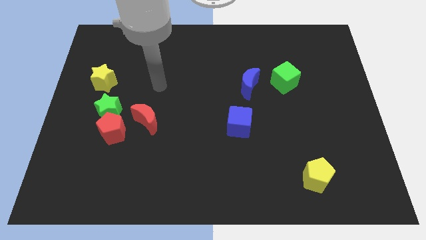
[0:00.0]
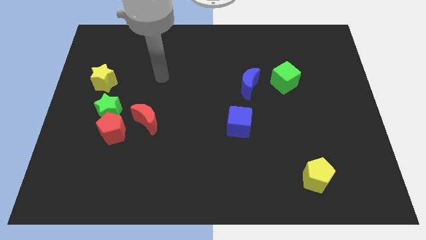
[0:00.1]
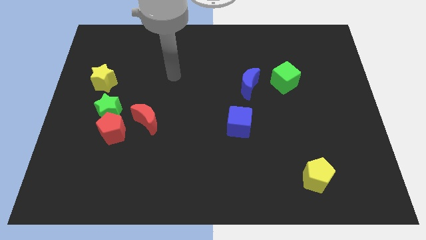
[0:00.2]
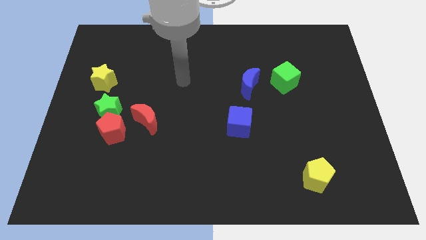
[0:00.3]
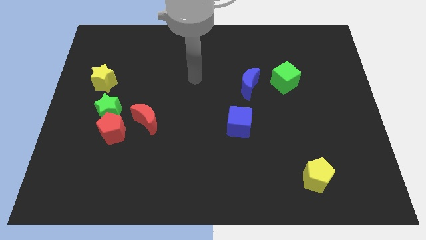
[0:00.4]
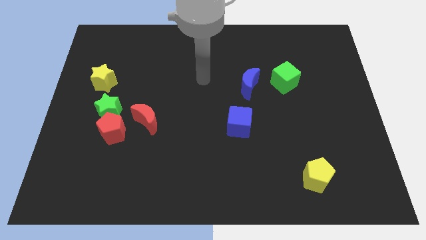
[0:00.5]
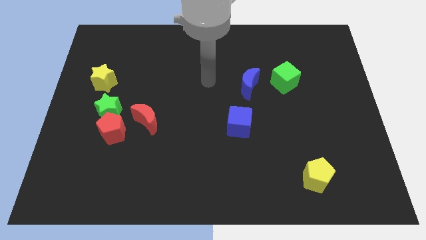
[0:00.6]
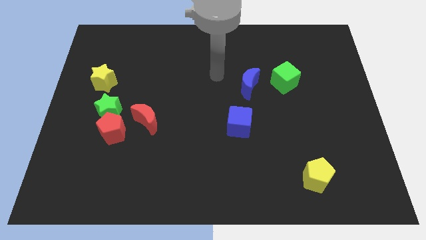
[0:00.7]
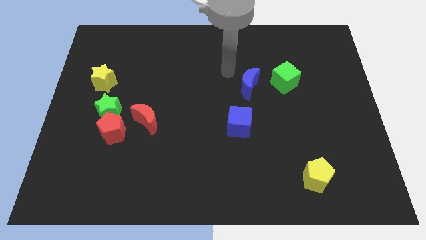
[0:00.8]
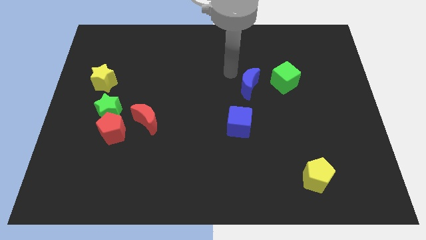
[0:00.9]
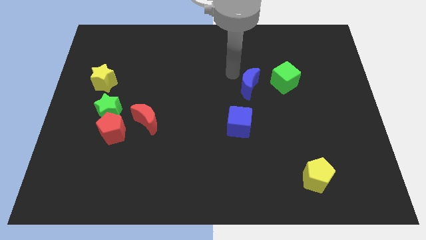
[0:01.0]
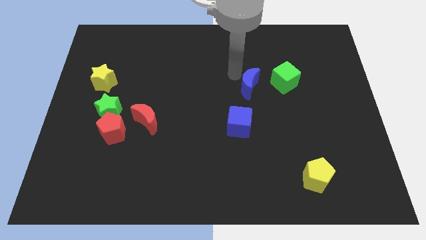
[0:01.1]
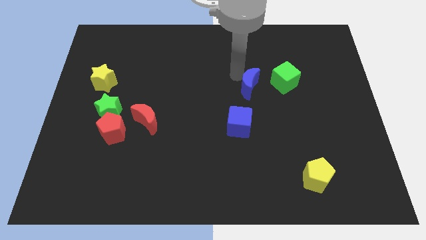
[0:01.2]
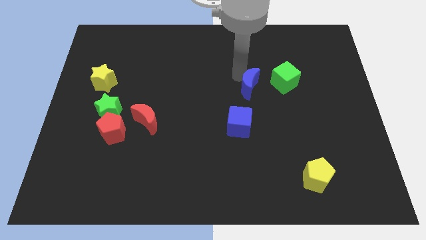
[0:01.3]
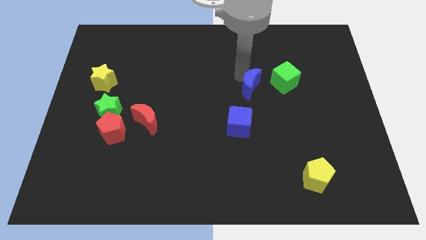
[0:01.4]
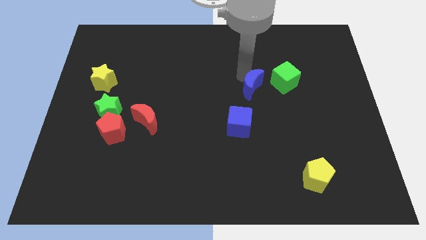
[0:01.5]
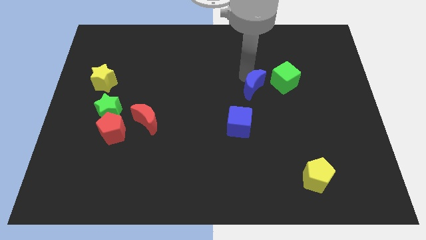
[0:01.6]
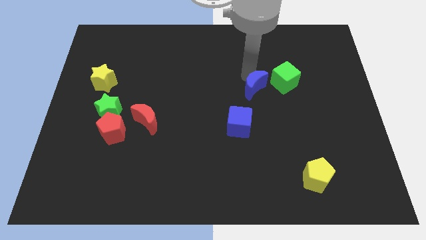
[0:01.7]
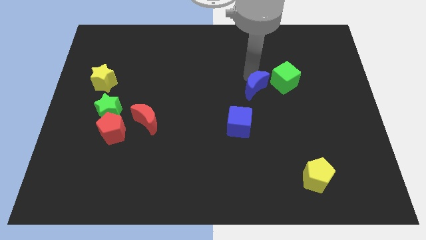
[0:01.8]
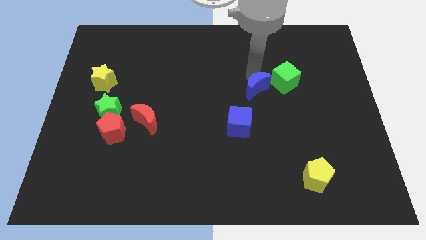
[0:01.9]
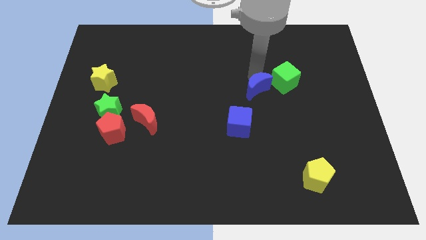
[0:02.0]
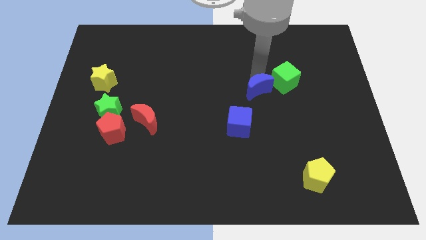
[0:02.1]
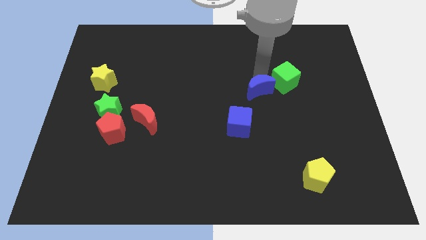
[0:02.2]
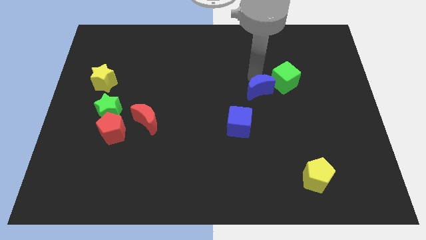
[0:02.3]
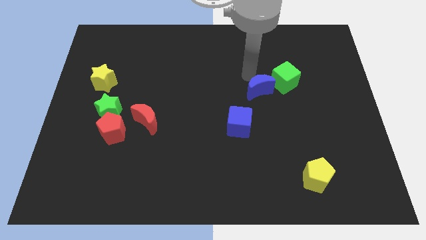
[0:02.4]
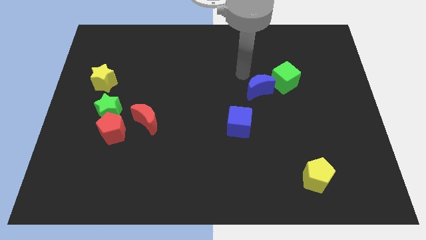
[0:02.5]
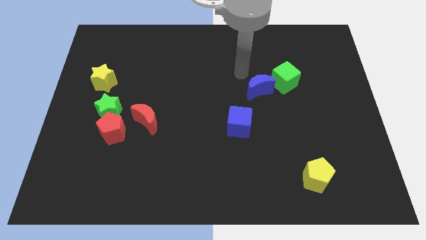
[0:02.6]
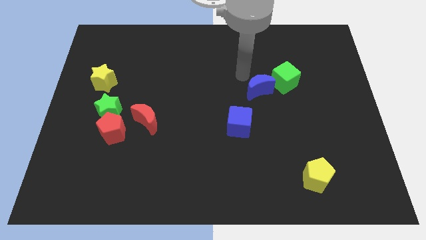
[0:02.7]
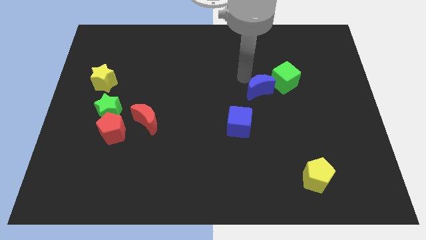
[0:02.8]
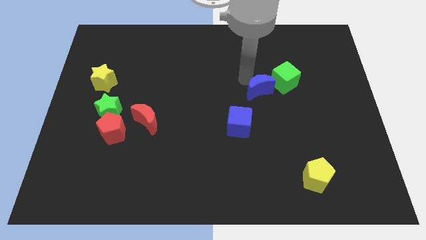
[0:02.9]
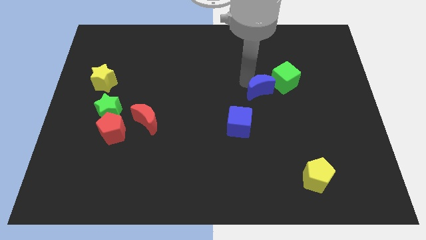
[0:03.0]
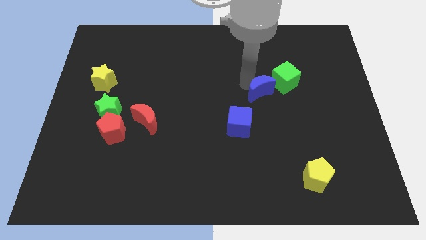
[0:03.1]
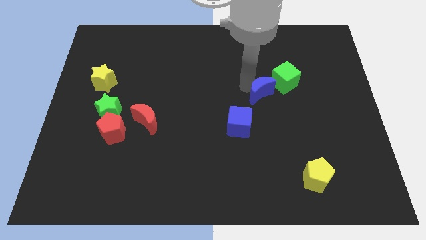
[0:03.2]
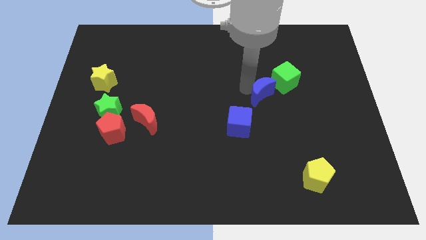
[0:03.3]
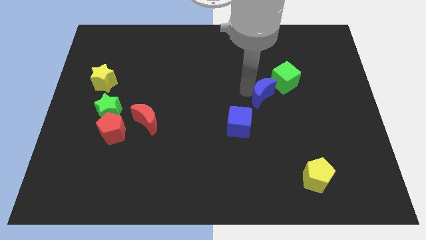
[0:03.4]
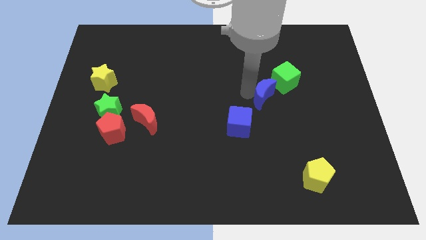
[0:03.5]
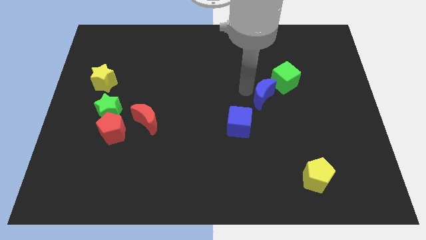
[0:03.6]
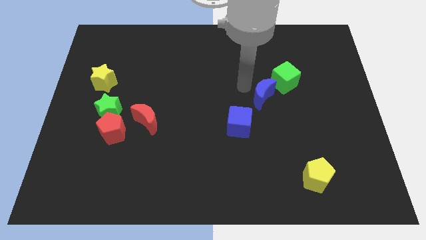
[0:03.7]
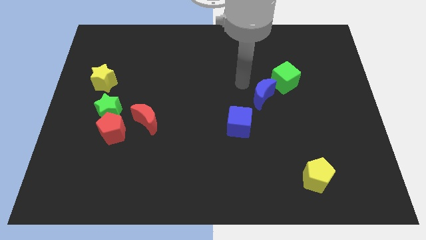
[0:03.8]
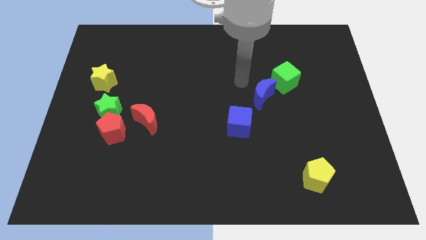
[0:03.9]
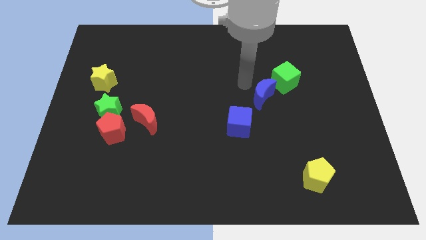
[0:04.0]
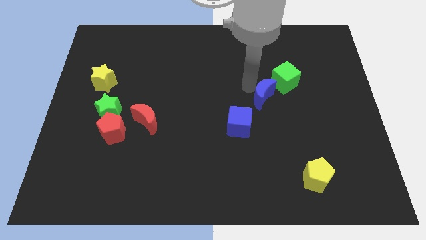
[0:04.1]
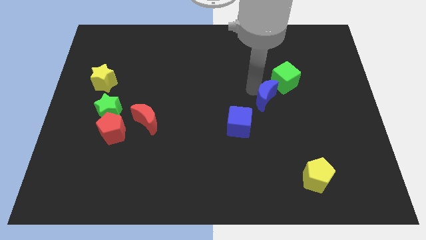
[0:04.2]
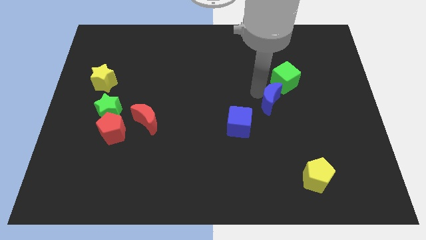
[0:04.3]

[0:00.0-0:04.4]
slightly move the blue moon diagonally downwards and to the right

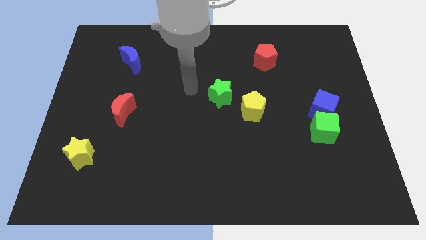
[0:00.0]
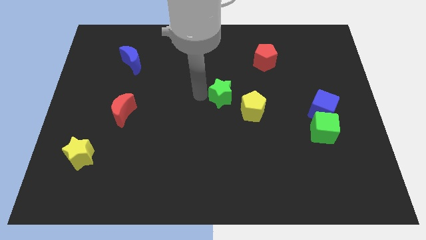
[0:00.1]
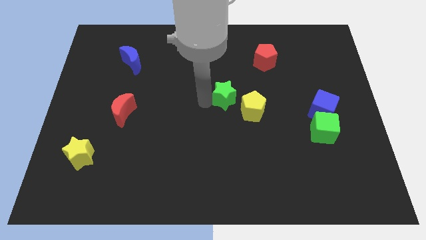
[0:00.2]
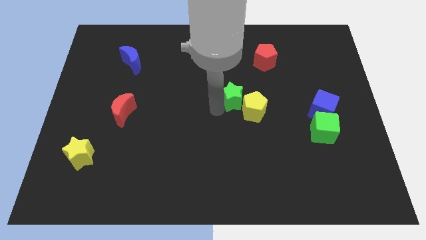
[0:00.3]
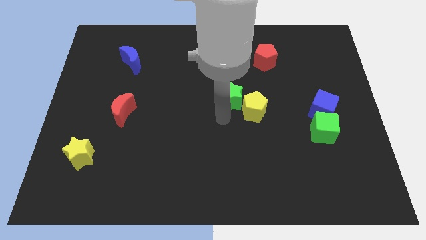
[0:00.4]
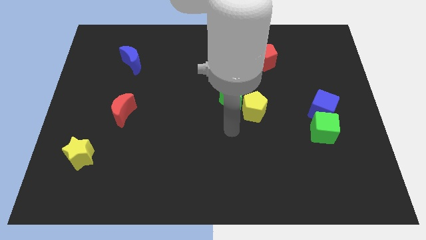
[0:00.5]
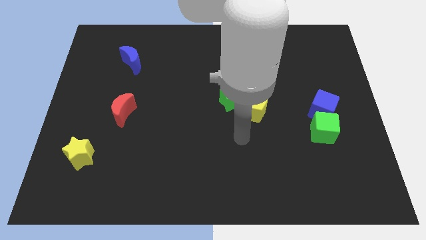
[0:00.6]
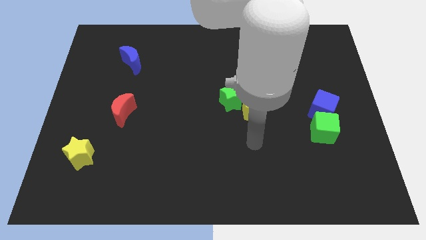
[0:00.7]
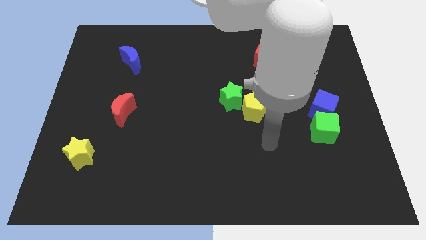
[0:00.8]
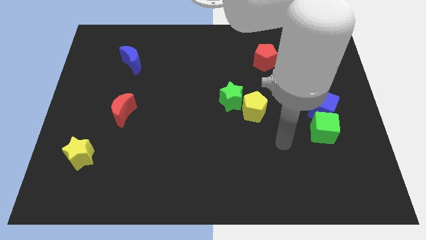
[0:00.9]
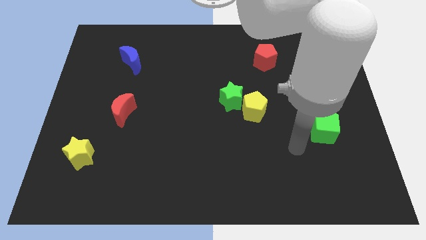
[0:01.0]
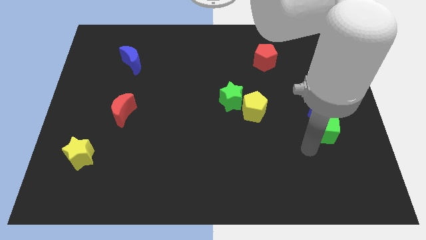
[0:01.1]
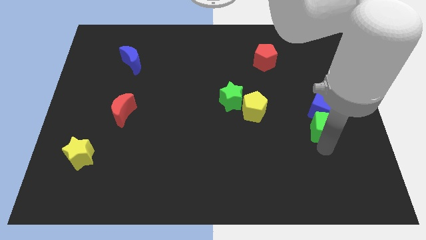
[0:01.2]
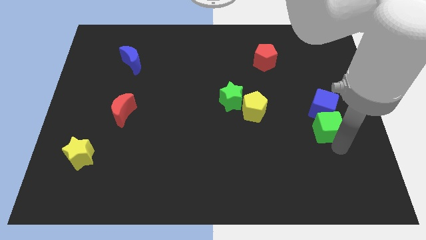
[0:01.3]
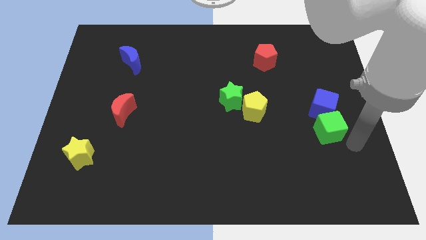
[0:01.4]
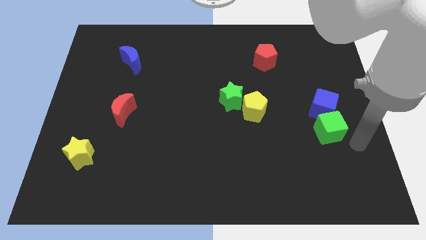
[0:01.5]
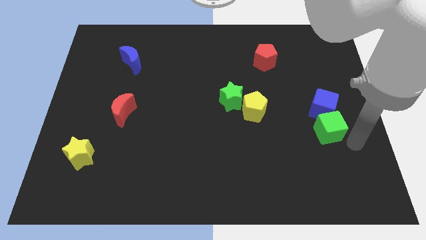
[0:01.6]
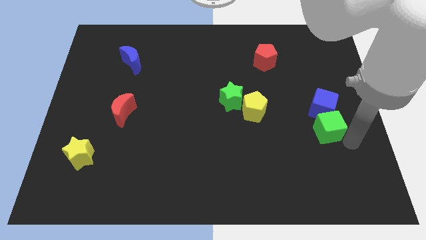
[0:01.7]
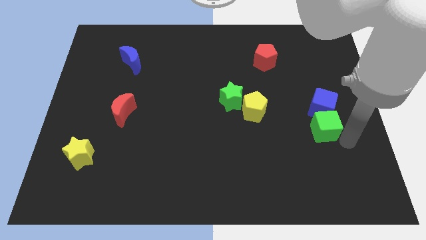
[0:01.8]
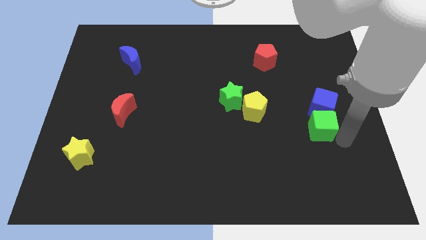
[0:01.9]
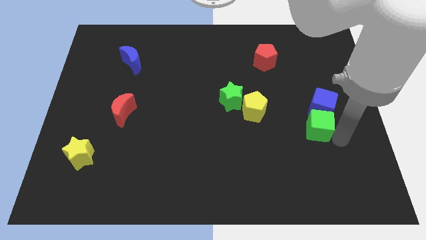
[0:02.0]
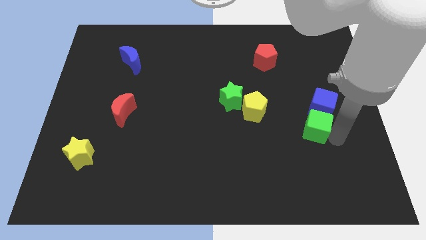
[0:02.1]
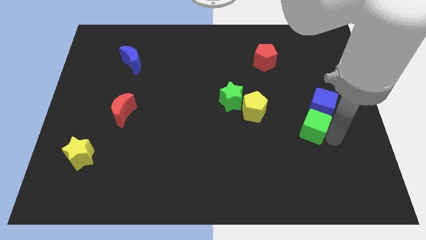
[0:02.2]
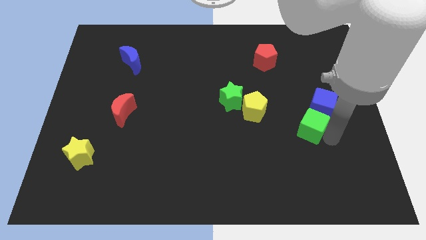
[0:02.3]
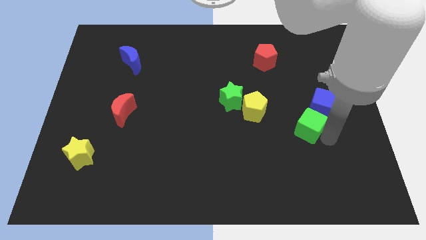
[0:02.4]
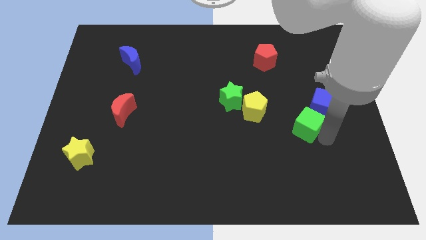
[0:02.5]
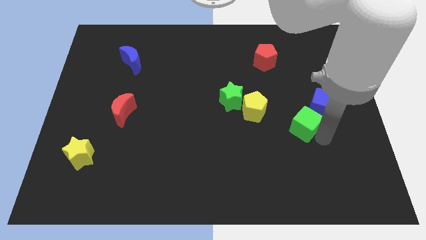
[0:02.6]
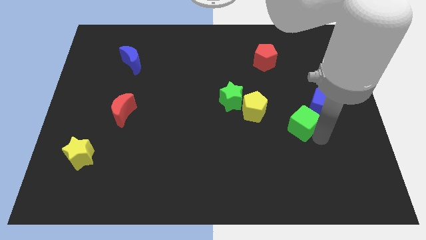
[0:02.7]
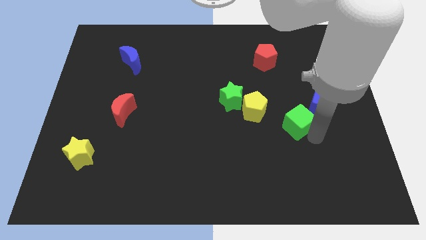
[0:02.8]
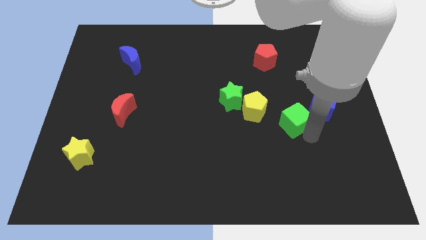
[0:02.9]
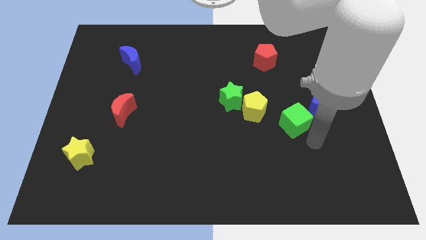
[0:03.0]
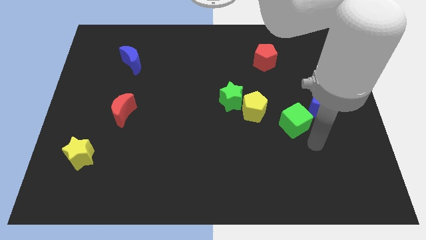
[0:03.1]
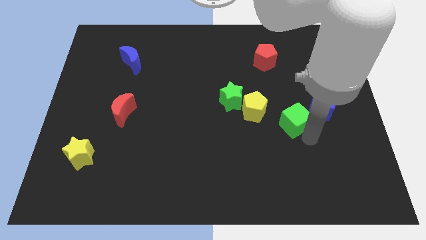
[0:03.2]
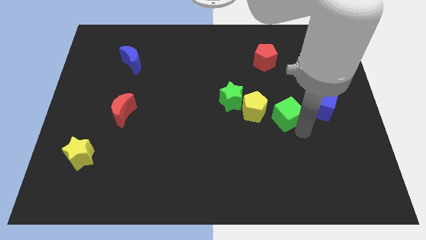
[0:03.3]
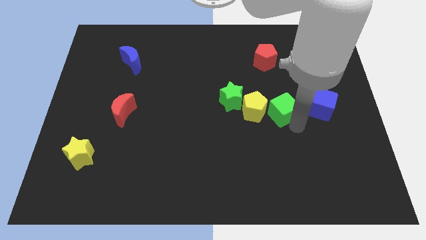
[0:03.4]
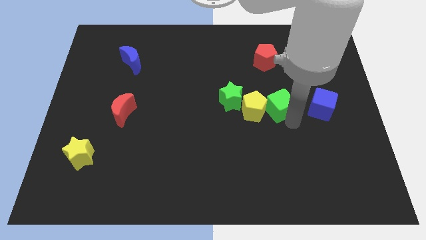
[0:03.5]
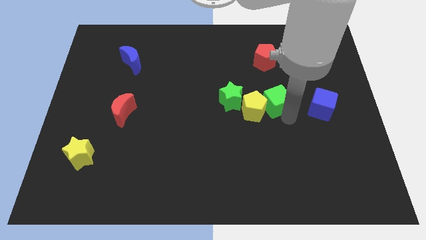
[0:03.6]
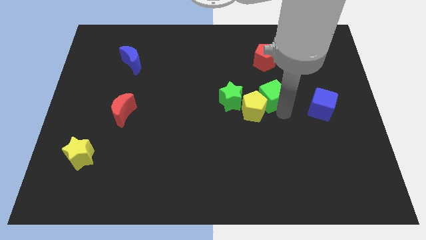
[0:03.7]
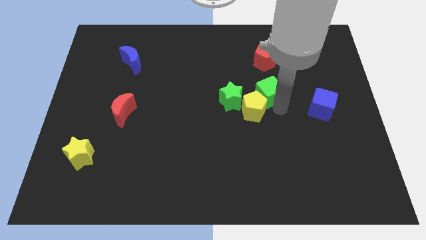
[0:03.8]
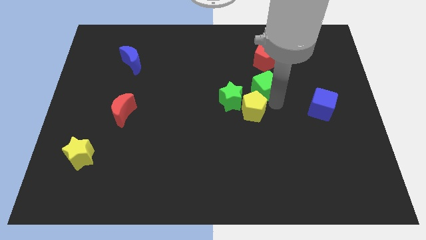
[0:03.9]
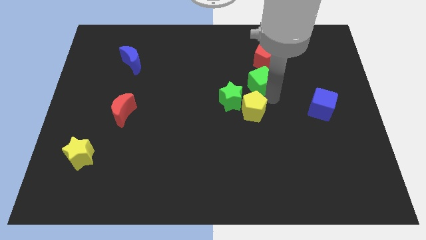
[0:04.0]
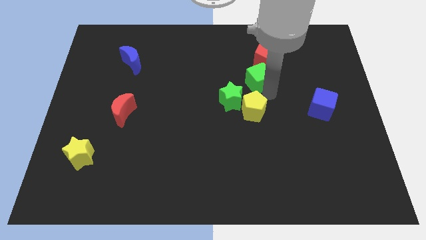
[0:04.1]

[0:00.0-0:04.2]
move the green cube up and to the left diagonally
